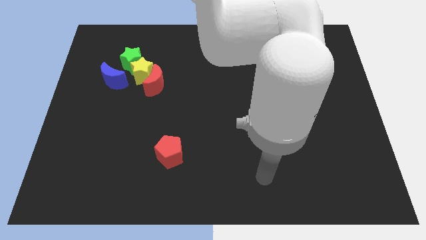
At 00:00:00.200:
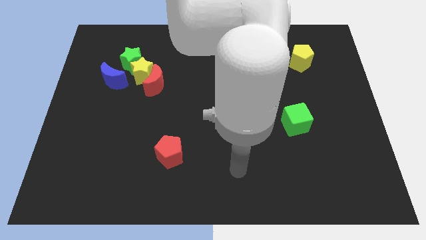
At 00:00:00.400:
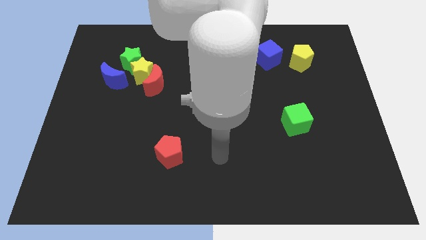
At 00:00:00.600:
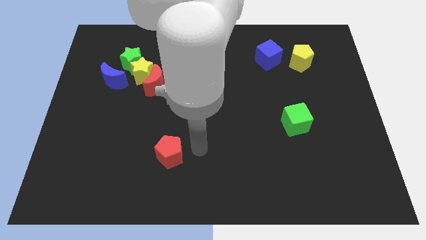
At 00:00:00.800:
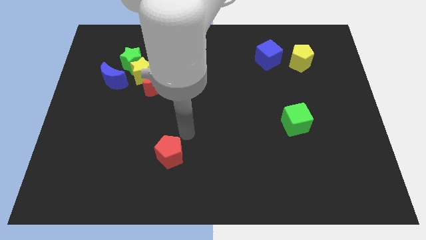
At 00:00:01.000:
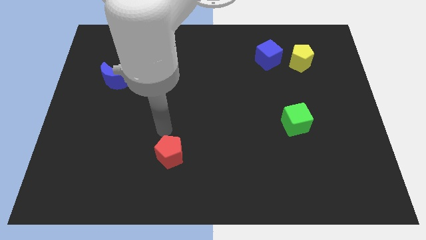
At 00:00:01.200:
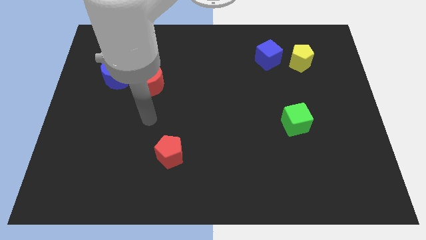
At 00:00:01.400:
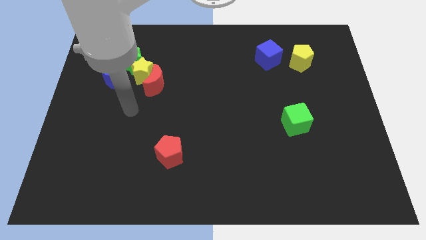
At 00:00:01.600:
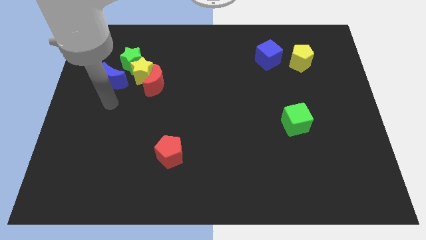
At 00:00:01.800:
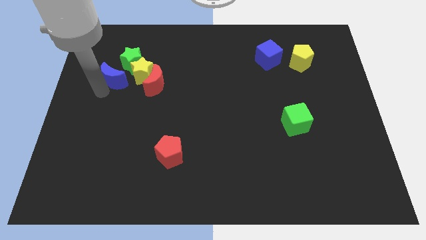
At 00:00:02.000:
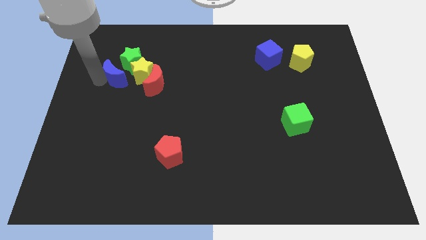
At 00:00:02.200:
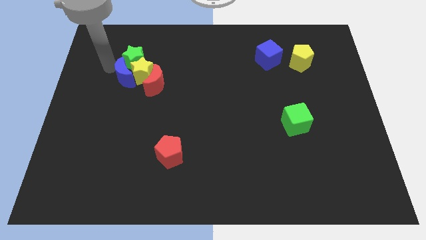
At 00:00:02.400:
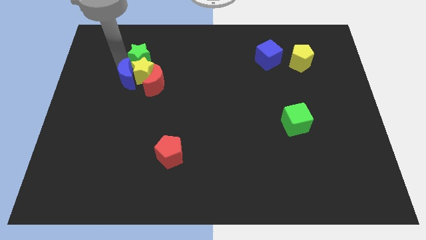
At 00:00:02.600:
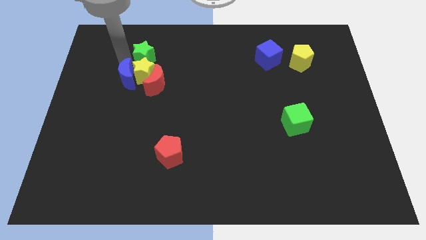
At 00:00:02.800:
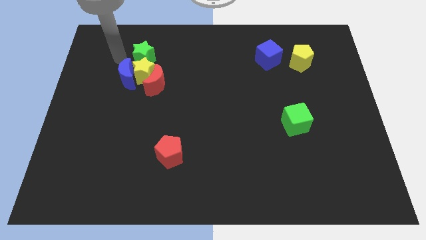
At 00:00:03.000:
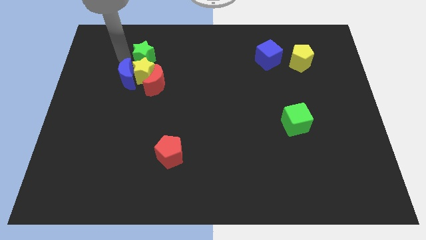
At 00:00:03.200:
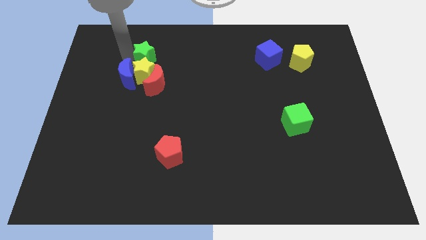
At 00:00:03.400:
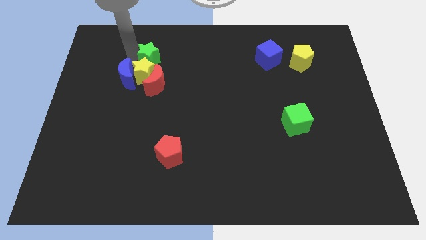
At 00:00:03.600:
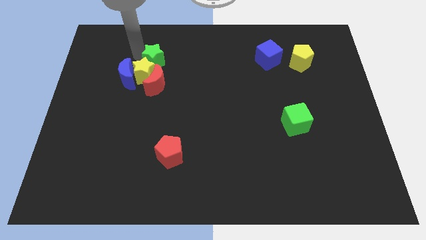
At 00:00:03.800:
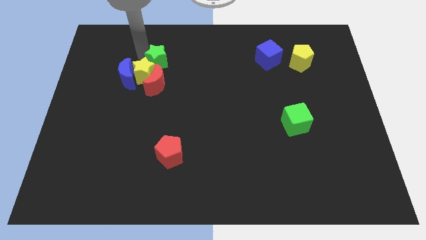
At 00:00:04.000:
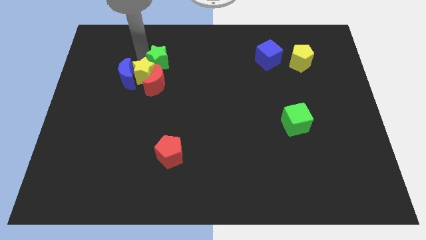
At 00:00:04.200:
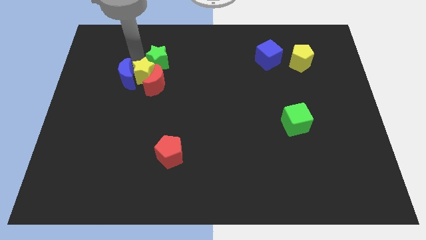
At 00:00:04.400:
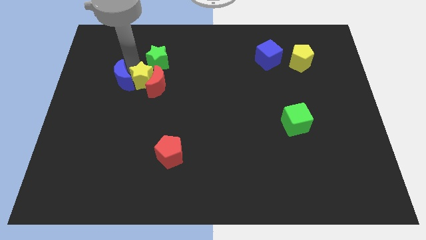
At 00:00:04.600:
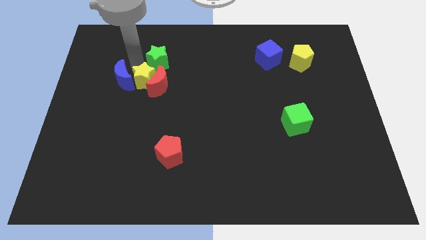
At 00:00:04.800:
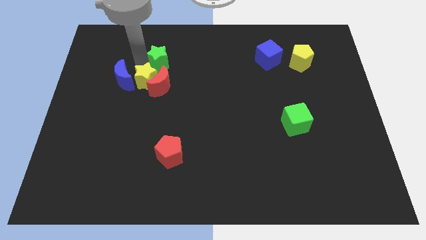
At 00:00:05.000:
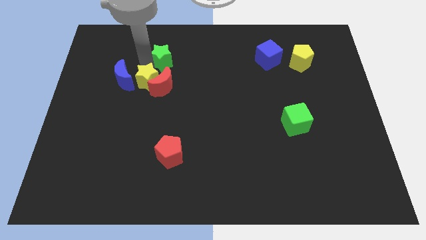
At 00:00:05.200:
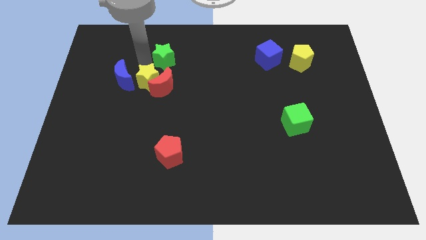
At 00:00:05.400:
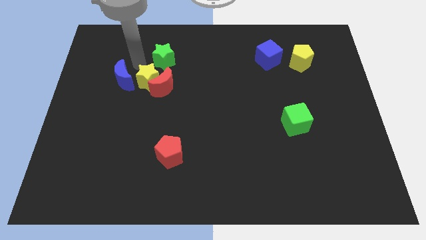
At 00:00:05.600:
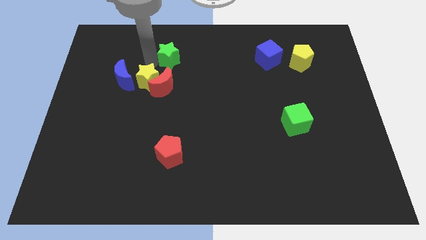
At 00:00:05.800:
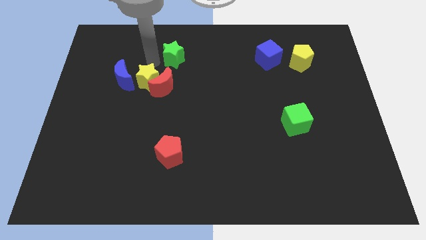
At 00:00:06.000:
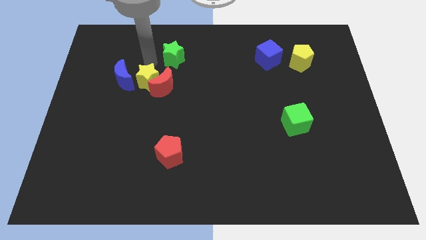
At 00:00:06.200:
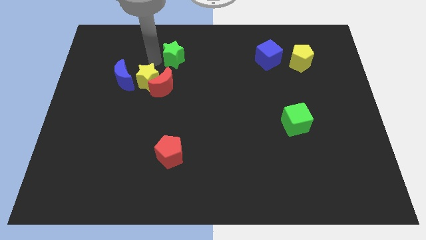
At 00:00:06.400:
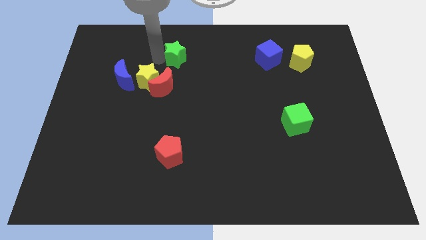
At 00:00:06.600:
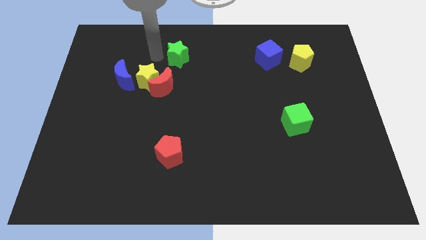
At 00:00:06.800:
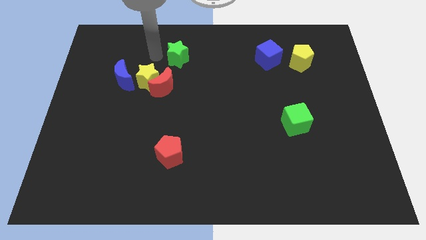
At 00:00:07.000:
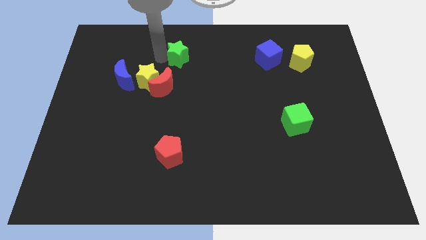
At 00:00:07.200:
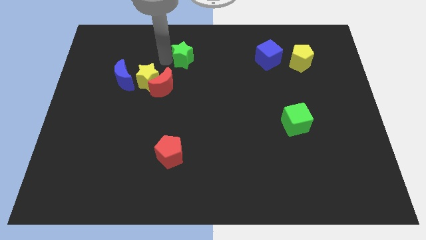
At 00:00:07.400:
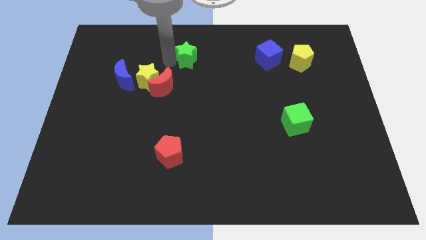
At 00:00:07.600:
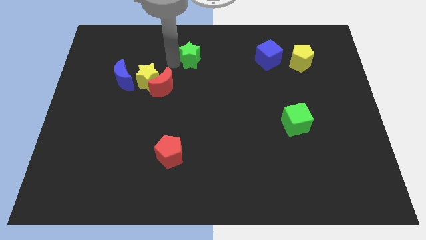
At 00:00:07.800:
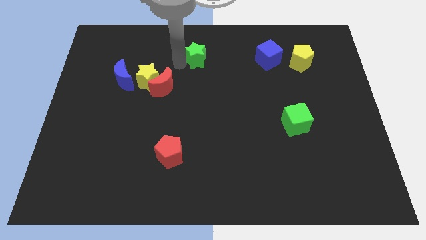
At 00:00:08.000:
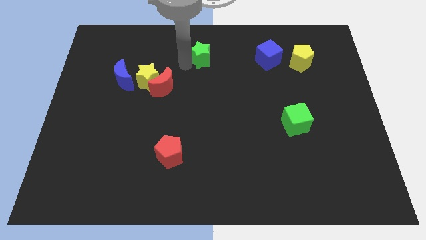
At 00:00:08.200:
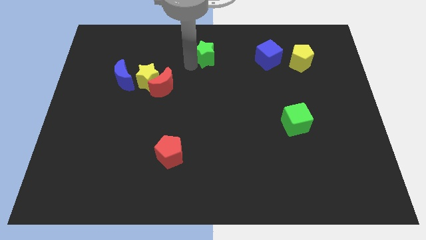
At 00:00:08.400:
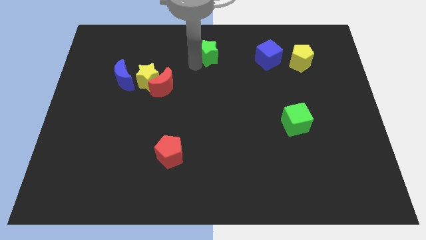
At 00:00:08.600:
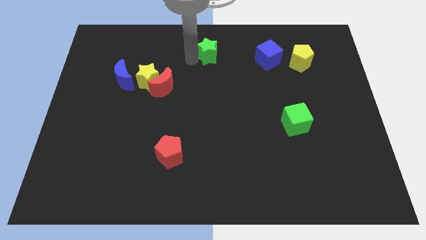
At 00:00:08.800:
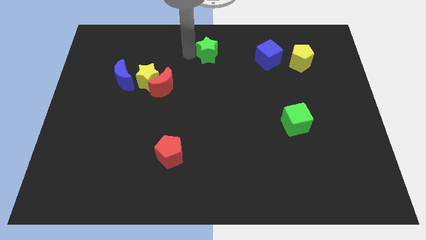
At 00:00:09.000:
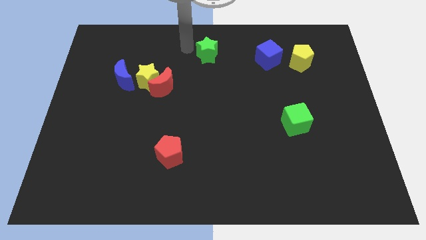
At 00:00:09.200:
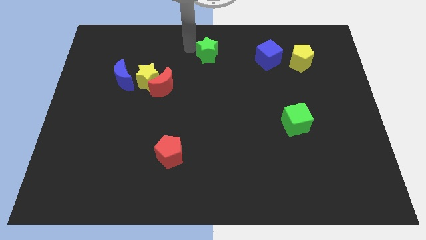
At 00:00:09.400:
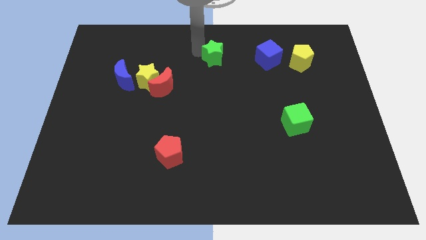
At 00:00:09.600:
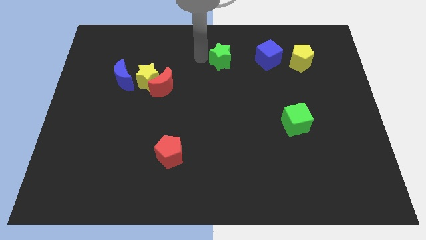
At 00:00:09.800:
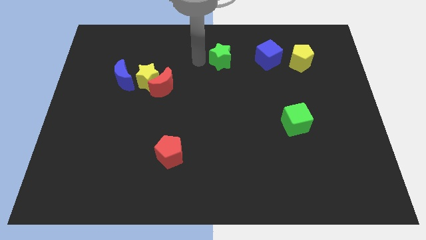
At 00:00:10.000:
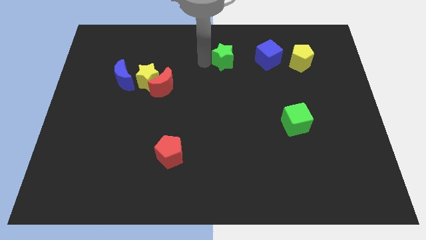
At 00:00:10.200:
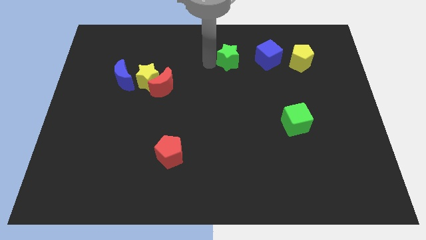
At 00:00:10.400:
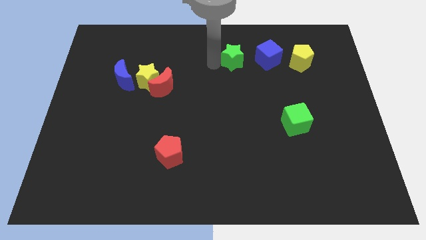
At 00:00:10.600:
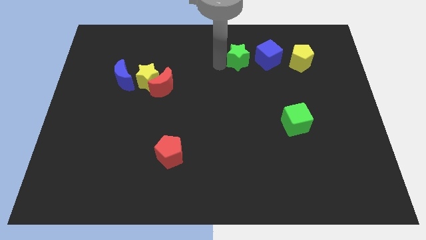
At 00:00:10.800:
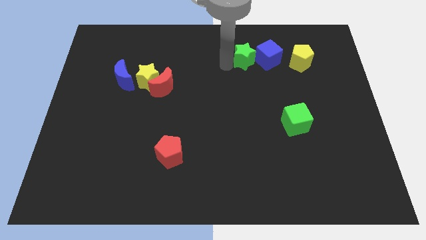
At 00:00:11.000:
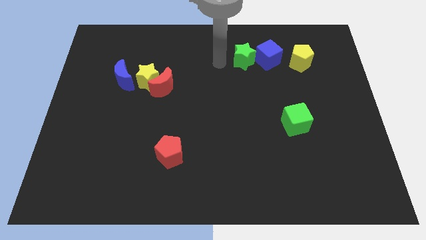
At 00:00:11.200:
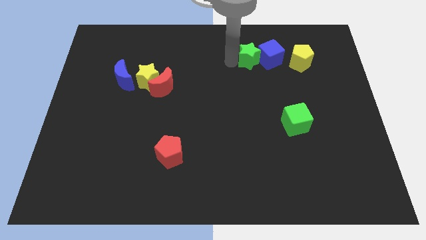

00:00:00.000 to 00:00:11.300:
move the green star to the blue cube

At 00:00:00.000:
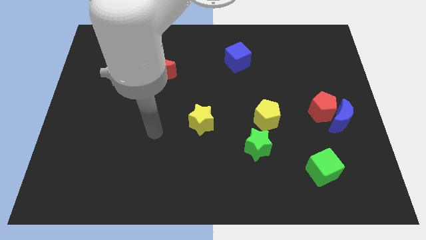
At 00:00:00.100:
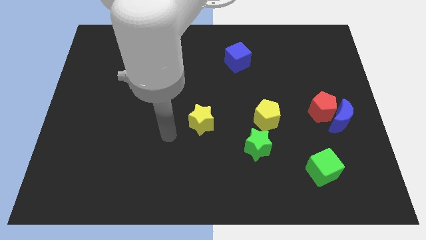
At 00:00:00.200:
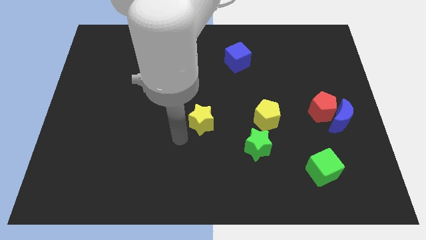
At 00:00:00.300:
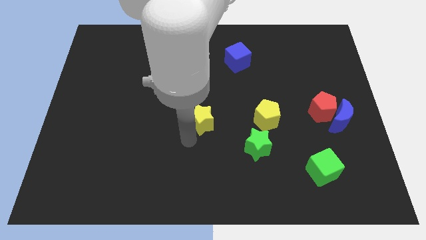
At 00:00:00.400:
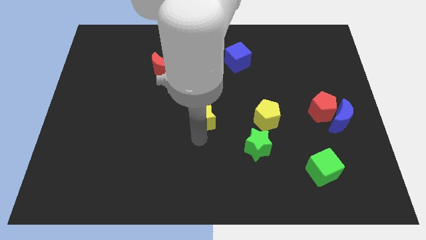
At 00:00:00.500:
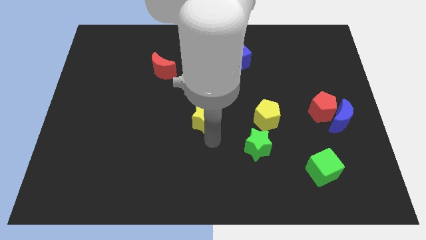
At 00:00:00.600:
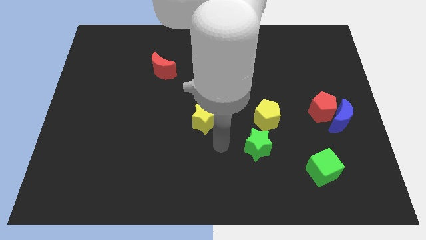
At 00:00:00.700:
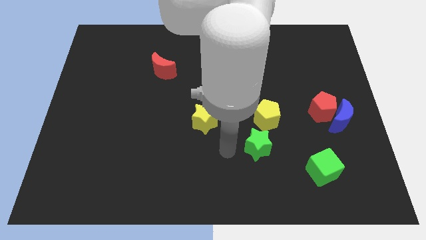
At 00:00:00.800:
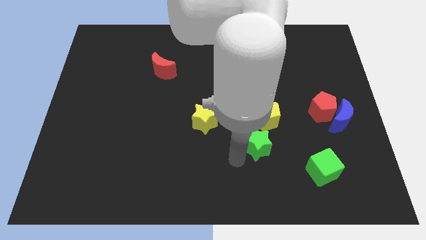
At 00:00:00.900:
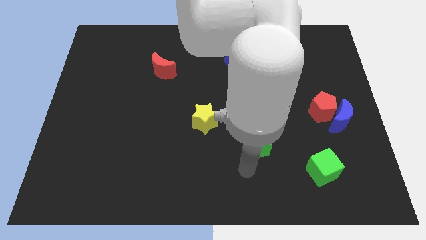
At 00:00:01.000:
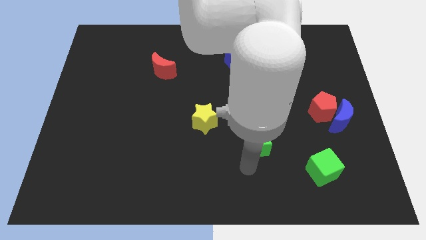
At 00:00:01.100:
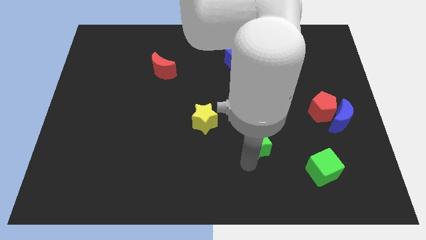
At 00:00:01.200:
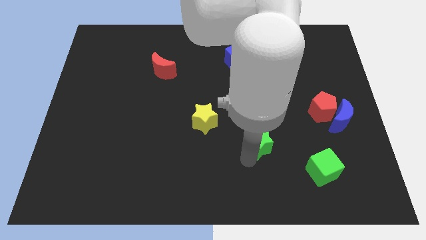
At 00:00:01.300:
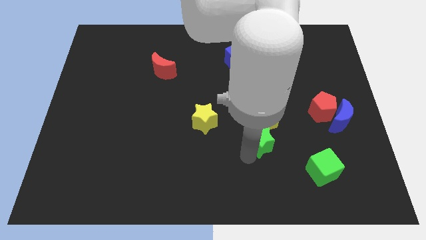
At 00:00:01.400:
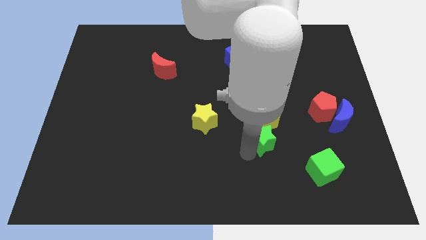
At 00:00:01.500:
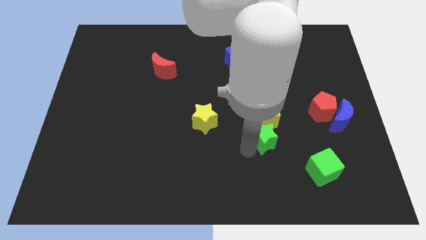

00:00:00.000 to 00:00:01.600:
push the green star towards the yellow pentagon

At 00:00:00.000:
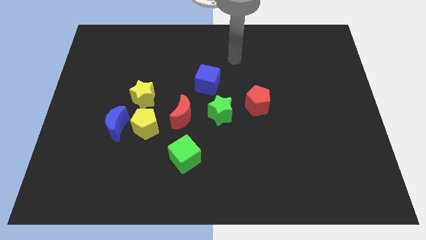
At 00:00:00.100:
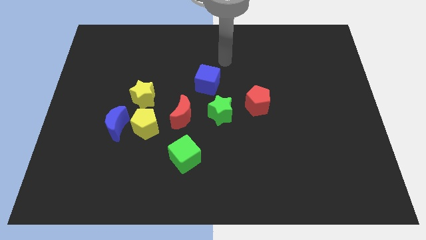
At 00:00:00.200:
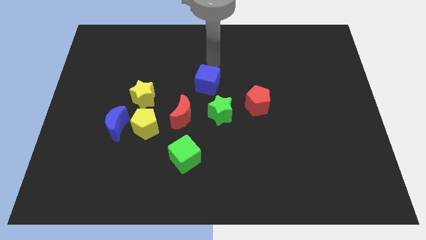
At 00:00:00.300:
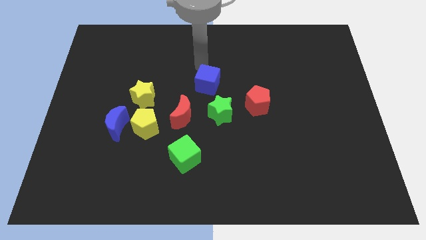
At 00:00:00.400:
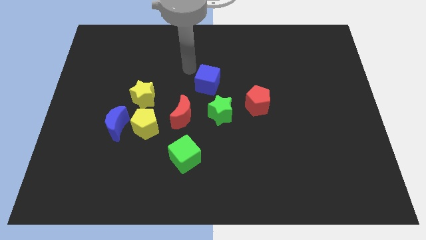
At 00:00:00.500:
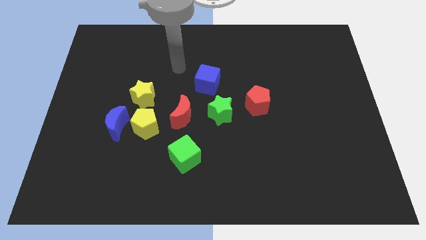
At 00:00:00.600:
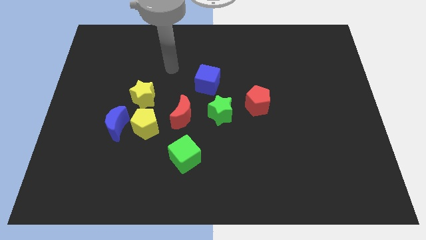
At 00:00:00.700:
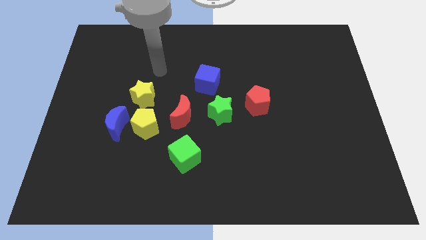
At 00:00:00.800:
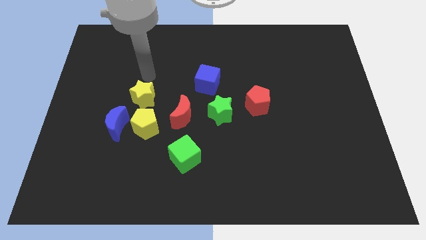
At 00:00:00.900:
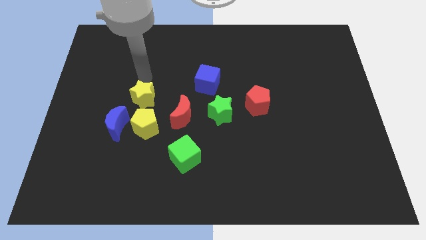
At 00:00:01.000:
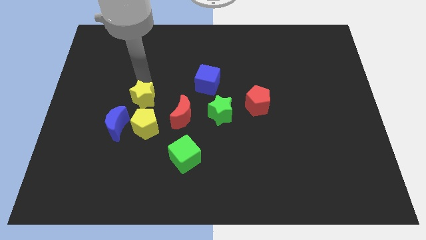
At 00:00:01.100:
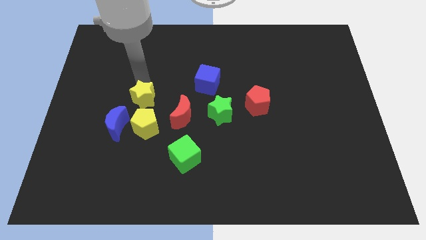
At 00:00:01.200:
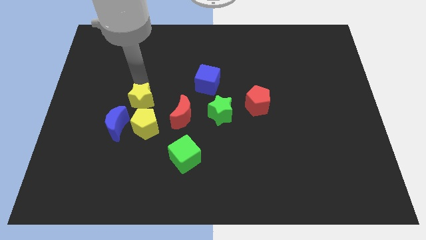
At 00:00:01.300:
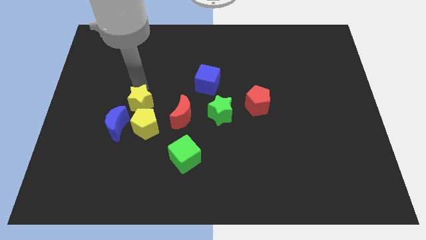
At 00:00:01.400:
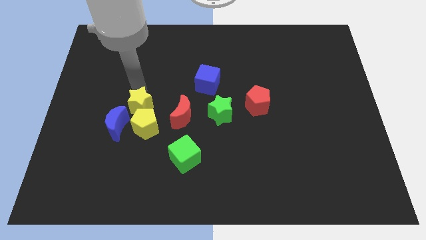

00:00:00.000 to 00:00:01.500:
put the yellow star close to the yellow pentagon
